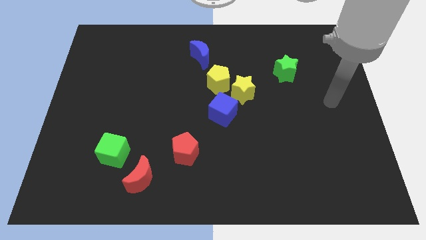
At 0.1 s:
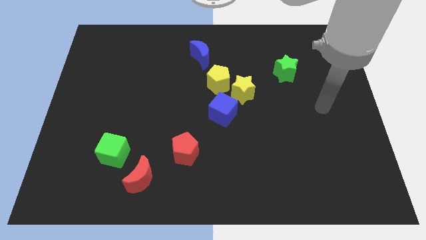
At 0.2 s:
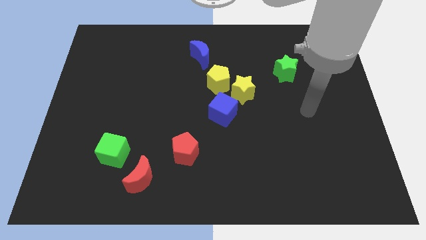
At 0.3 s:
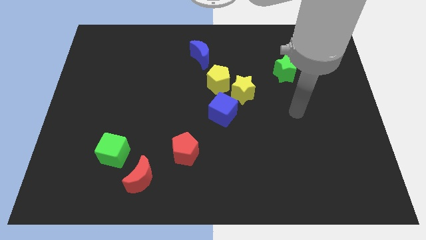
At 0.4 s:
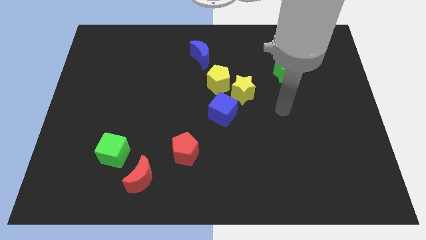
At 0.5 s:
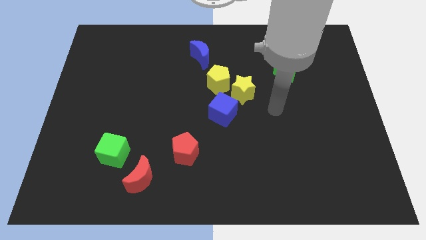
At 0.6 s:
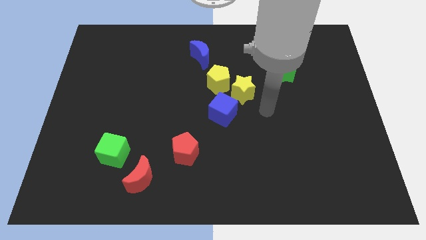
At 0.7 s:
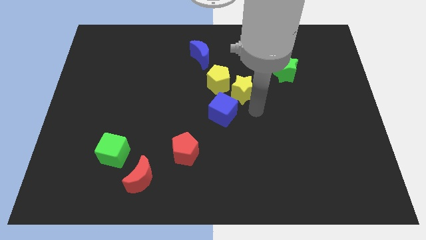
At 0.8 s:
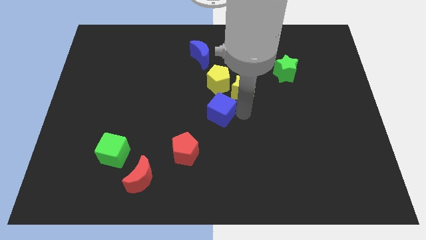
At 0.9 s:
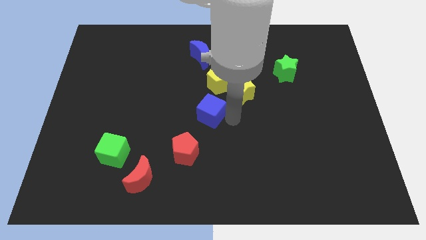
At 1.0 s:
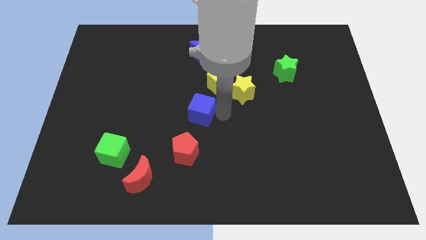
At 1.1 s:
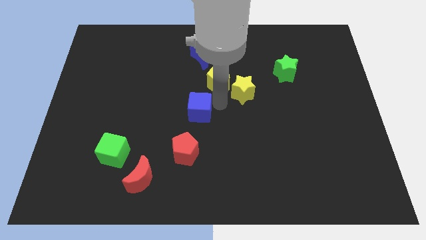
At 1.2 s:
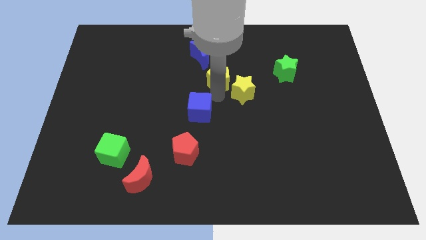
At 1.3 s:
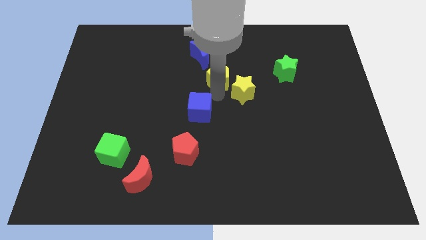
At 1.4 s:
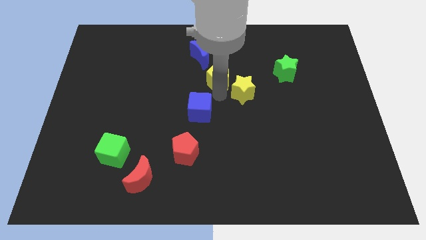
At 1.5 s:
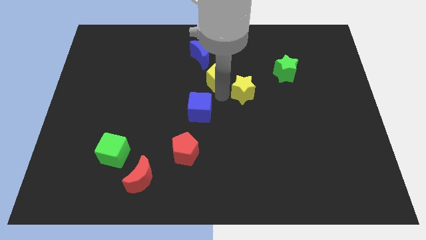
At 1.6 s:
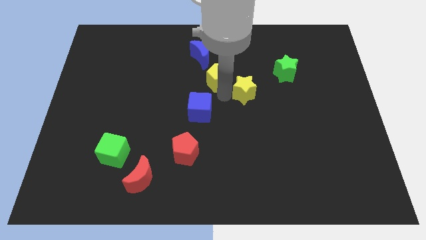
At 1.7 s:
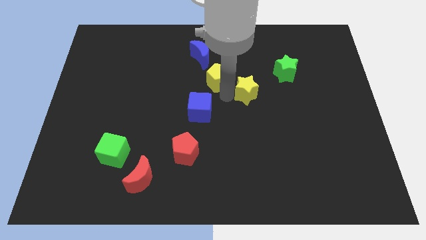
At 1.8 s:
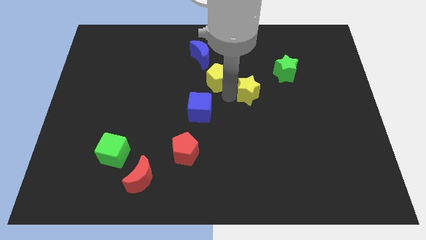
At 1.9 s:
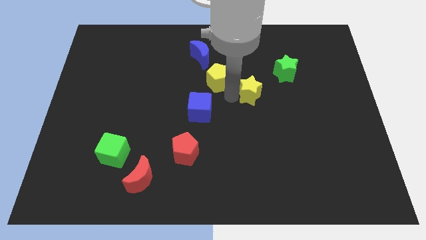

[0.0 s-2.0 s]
move the yellow star away from the yellow pentagon and blue cube

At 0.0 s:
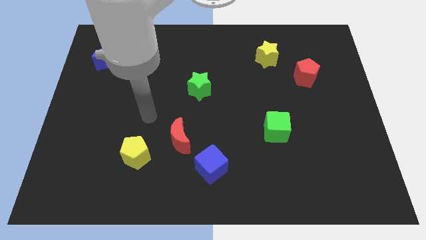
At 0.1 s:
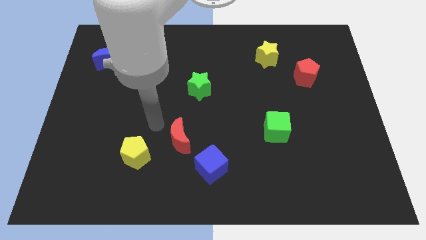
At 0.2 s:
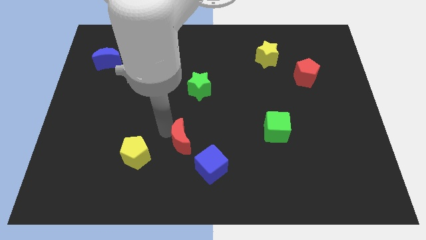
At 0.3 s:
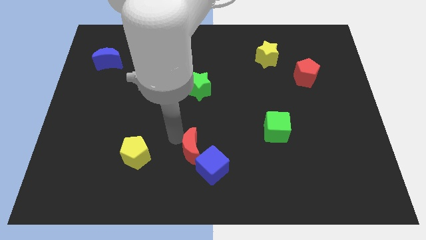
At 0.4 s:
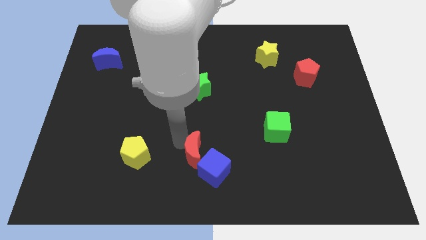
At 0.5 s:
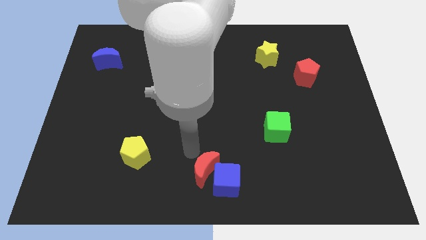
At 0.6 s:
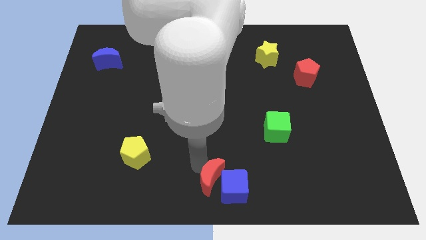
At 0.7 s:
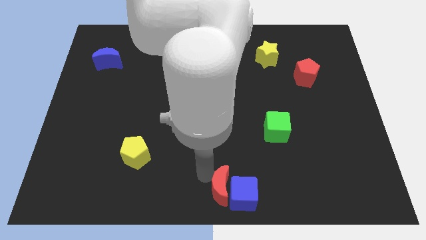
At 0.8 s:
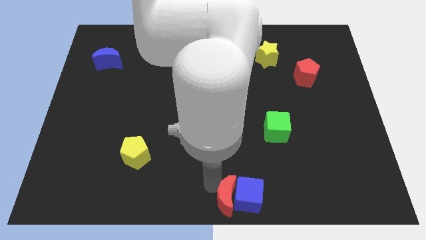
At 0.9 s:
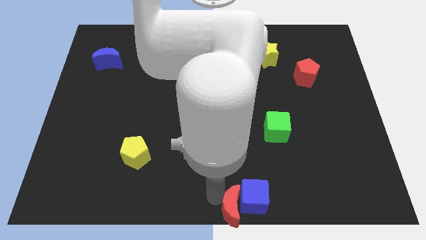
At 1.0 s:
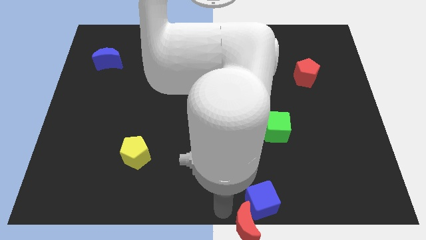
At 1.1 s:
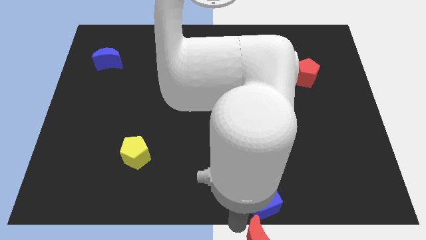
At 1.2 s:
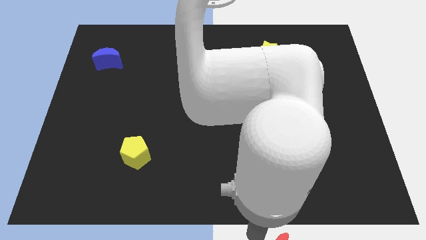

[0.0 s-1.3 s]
separate the blue cube from the red moon

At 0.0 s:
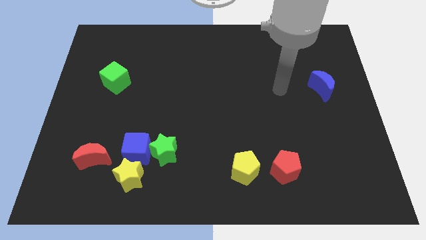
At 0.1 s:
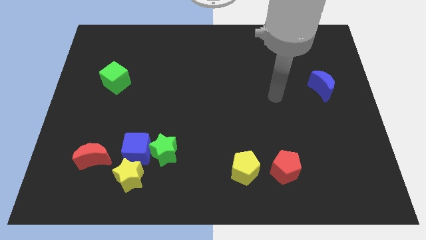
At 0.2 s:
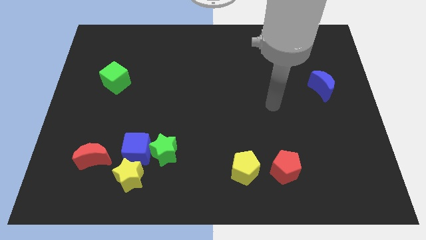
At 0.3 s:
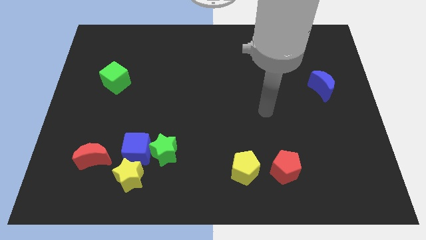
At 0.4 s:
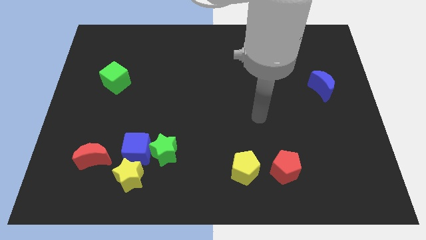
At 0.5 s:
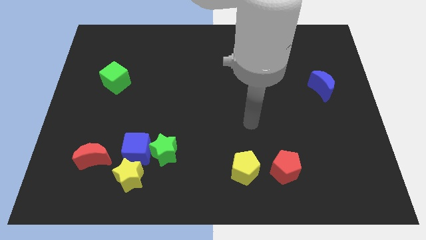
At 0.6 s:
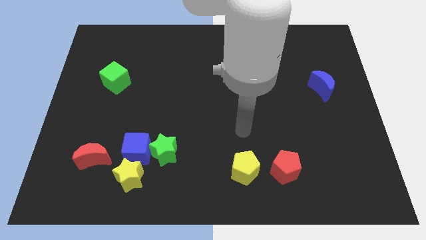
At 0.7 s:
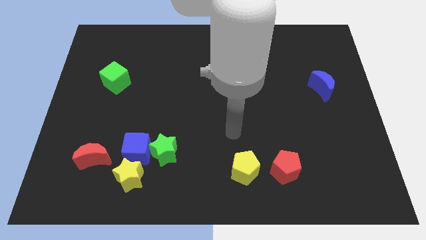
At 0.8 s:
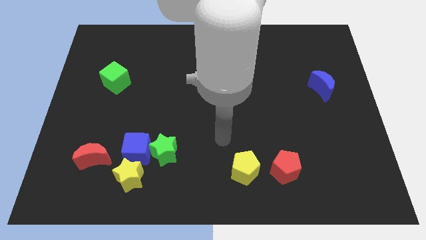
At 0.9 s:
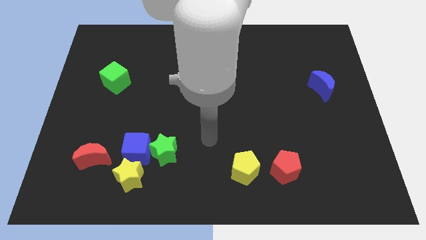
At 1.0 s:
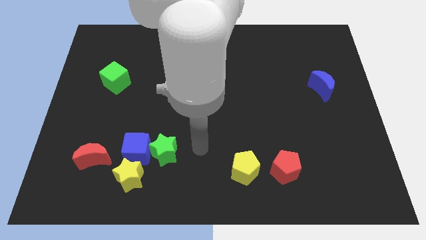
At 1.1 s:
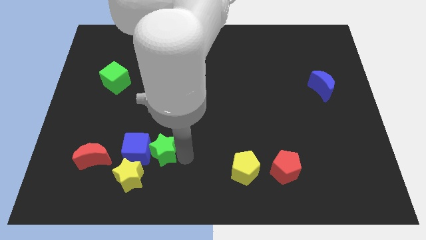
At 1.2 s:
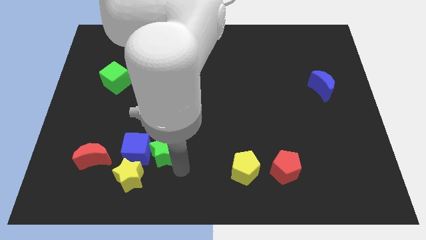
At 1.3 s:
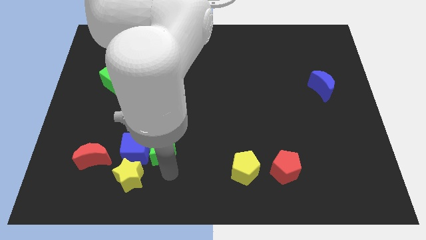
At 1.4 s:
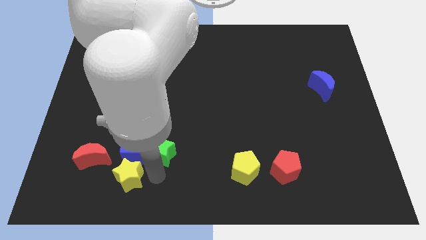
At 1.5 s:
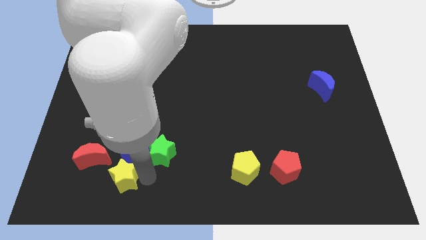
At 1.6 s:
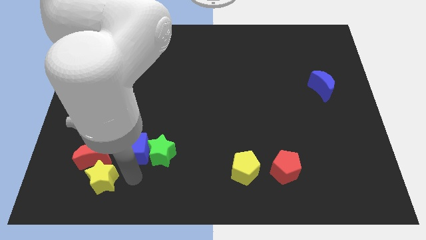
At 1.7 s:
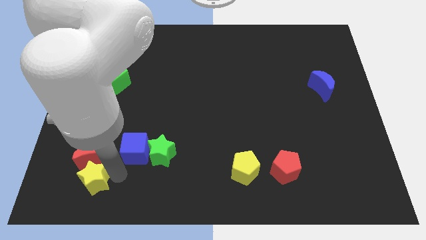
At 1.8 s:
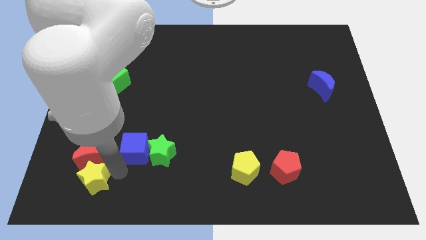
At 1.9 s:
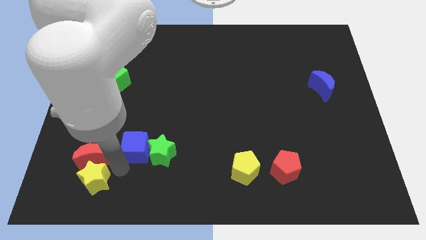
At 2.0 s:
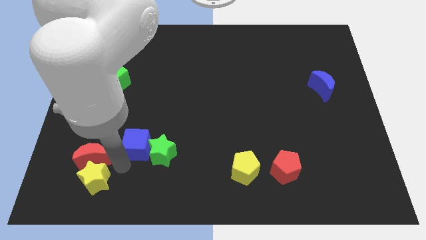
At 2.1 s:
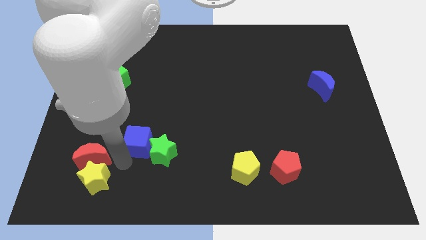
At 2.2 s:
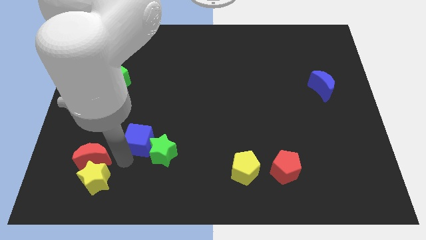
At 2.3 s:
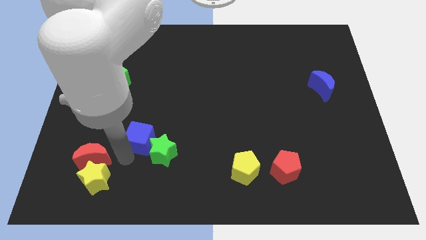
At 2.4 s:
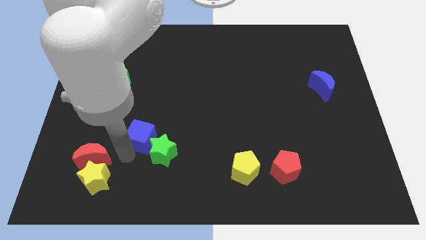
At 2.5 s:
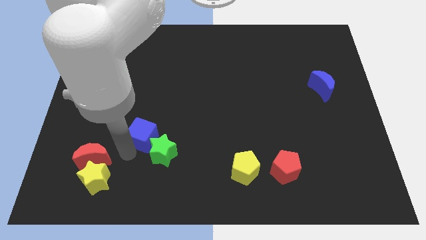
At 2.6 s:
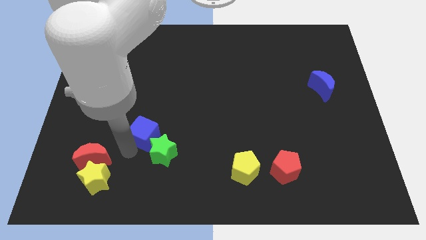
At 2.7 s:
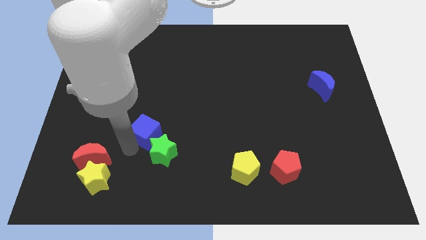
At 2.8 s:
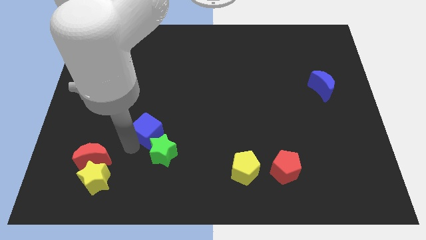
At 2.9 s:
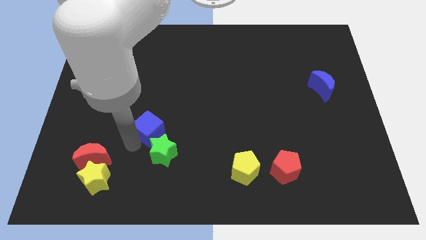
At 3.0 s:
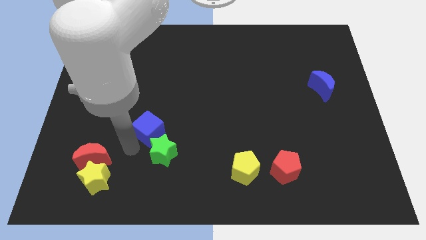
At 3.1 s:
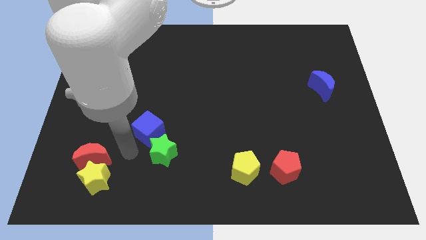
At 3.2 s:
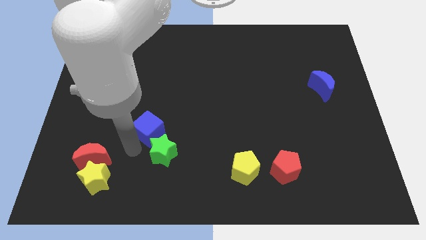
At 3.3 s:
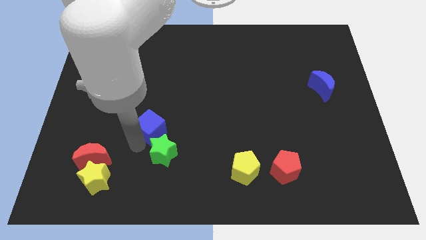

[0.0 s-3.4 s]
pull the blue cube apart from the green star, yellow star, and red moon

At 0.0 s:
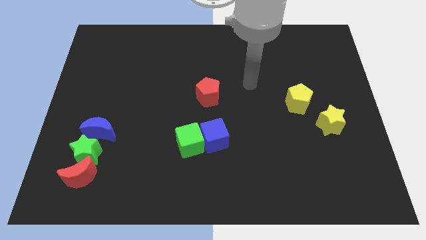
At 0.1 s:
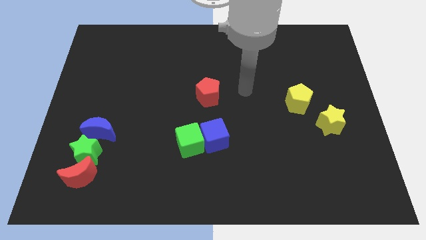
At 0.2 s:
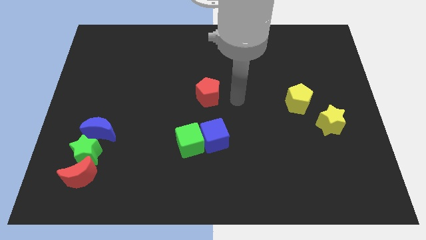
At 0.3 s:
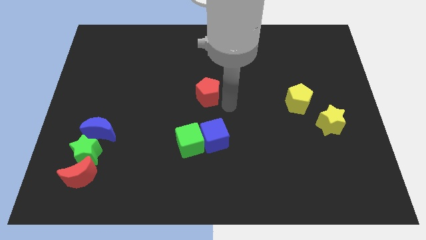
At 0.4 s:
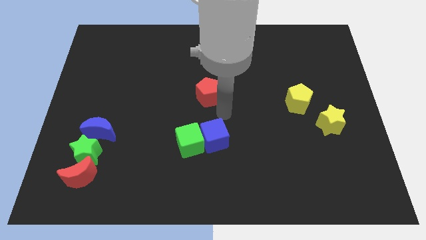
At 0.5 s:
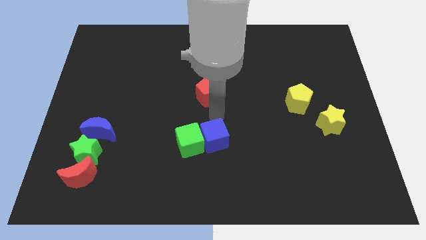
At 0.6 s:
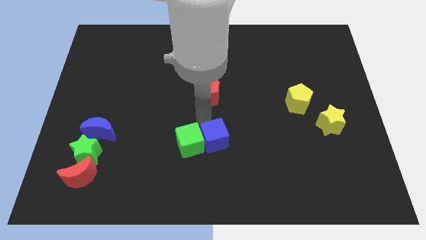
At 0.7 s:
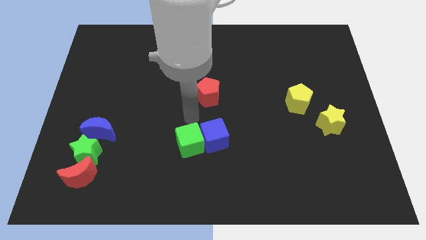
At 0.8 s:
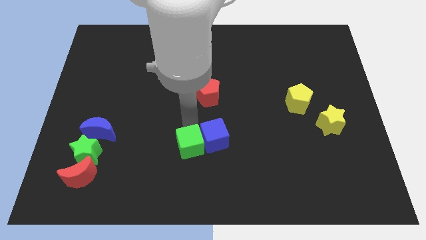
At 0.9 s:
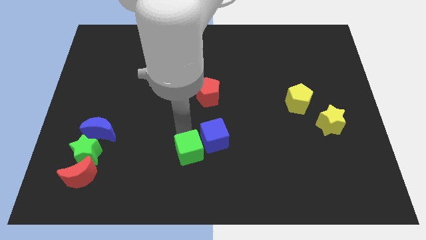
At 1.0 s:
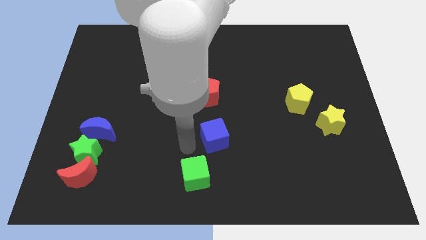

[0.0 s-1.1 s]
separate the blue cube from the green cube

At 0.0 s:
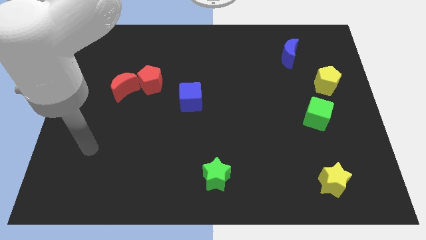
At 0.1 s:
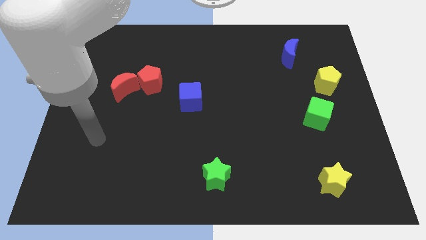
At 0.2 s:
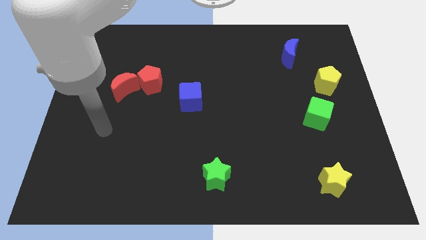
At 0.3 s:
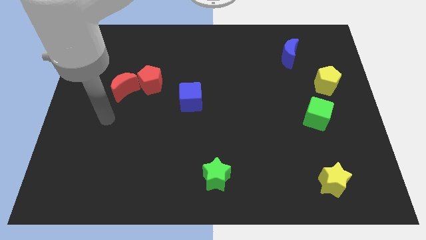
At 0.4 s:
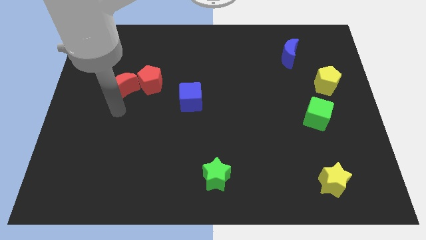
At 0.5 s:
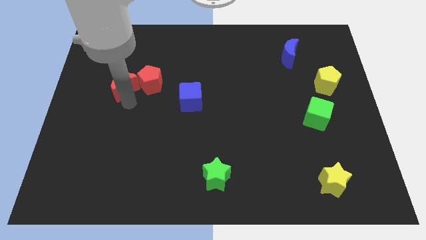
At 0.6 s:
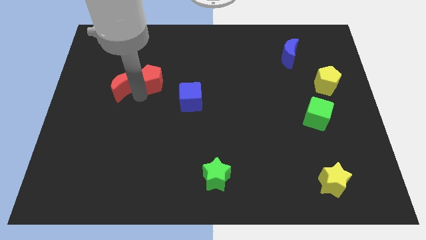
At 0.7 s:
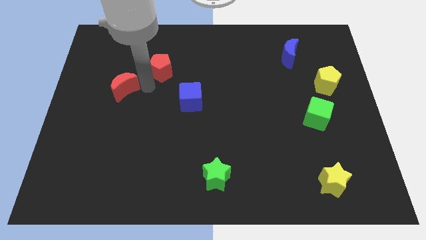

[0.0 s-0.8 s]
move the red moon away from the red pentagon

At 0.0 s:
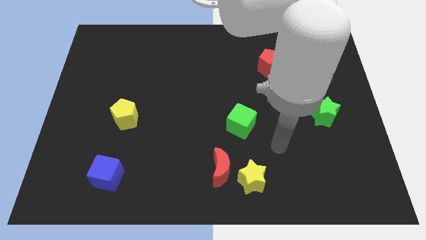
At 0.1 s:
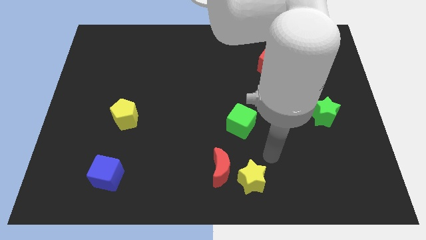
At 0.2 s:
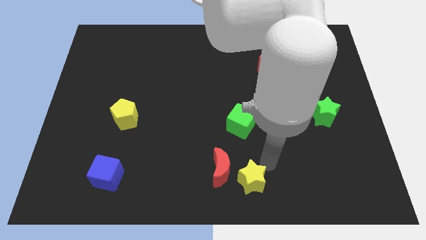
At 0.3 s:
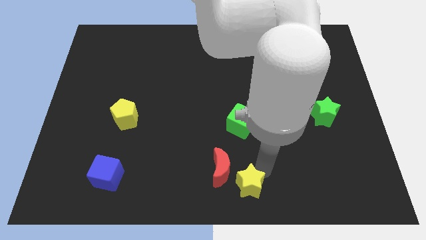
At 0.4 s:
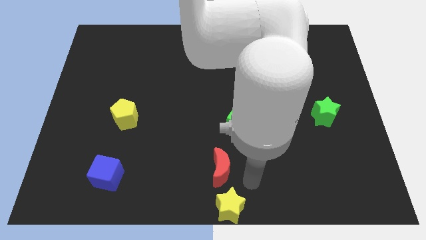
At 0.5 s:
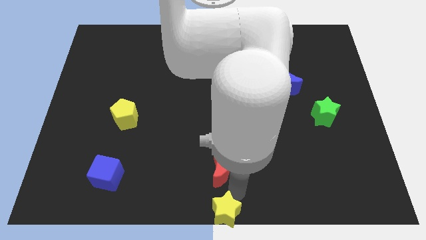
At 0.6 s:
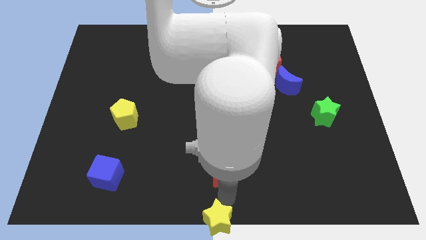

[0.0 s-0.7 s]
pull the red moon apart from the yellow star
